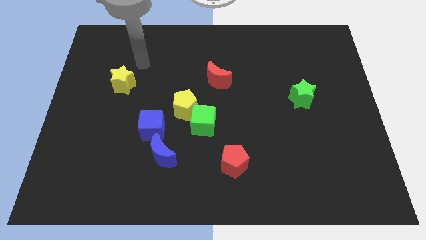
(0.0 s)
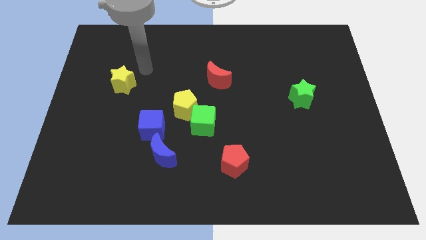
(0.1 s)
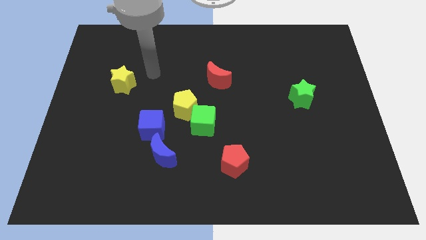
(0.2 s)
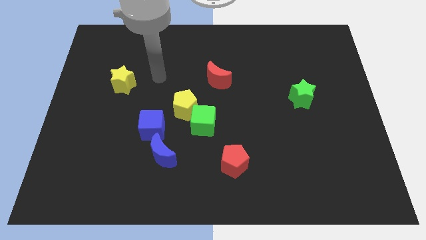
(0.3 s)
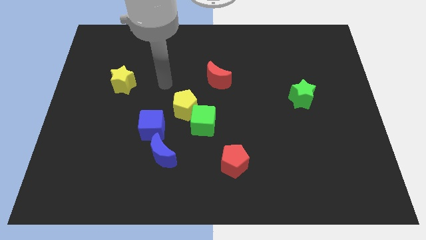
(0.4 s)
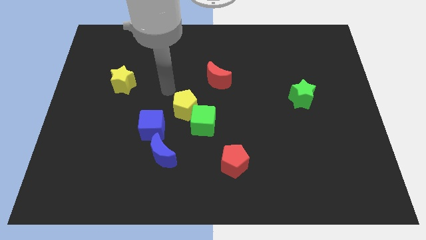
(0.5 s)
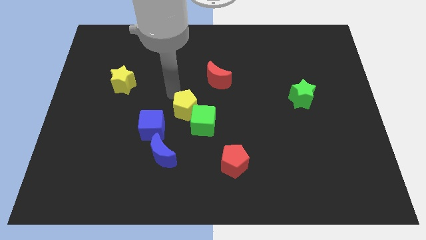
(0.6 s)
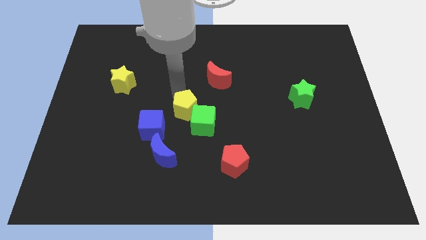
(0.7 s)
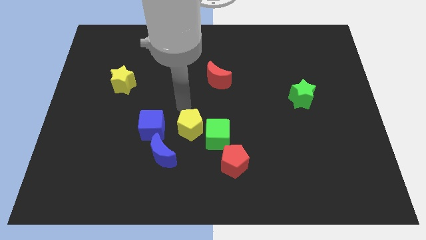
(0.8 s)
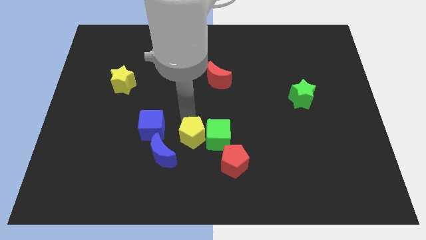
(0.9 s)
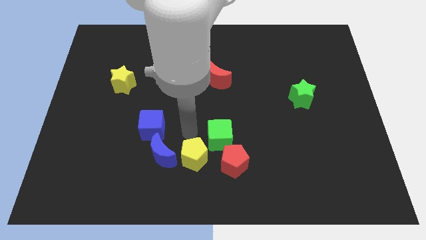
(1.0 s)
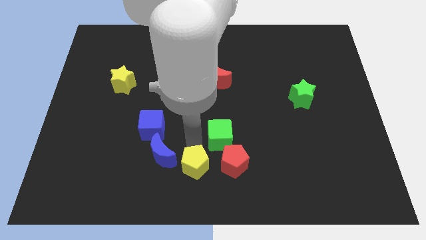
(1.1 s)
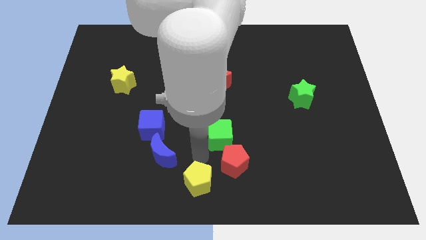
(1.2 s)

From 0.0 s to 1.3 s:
pull the green cube apart from the yellow pentagon

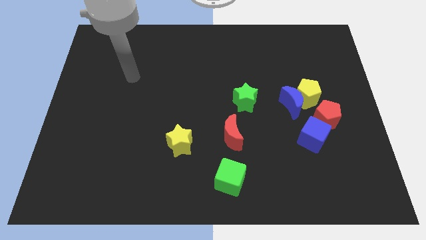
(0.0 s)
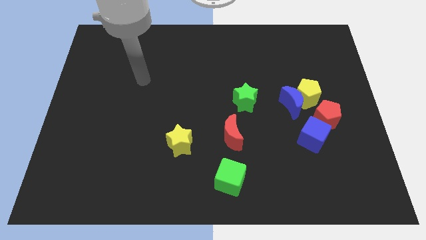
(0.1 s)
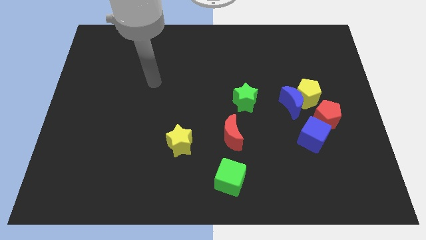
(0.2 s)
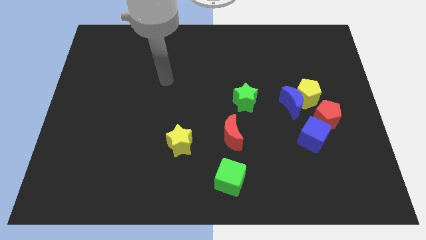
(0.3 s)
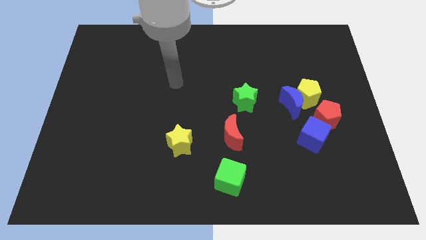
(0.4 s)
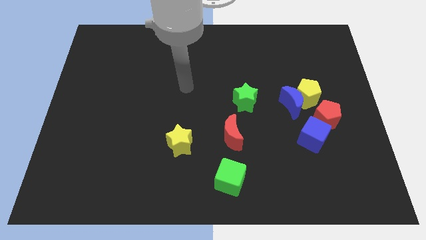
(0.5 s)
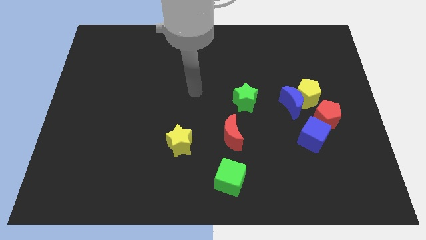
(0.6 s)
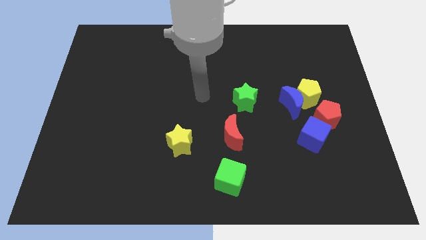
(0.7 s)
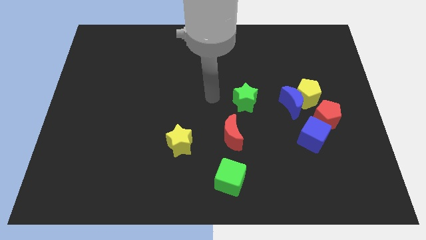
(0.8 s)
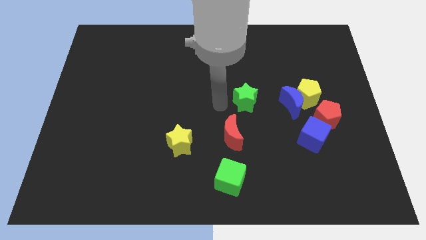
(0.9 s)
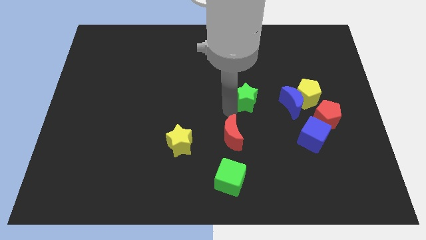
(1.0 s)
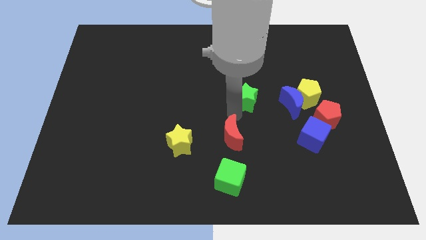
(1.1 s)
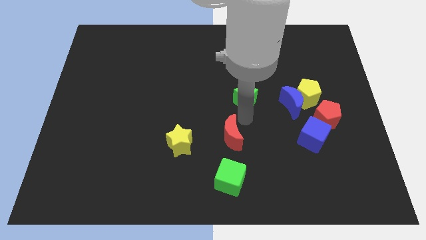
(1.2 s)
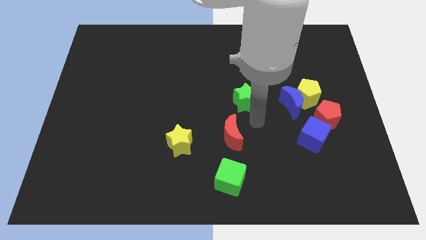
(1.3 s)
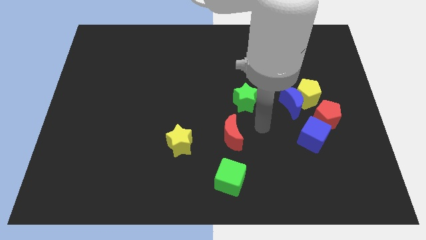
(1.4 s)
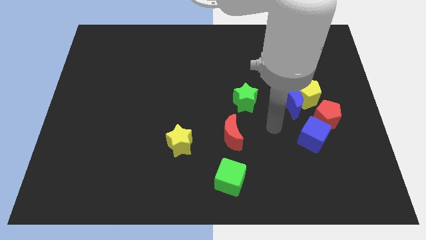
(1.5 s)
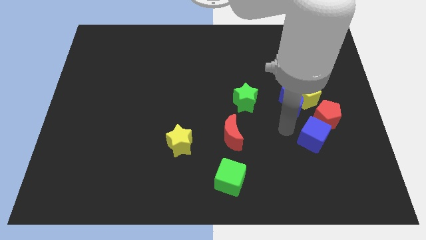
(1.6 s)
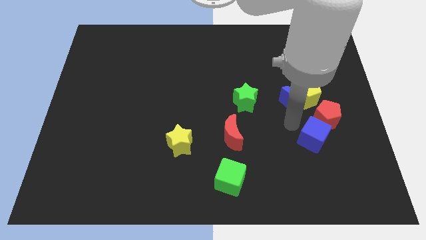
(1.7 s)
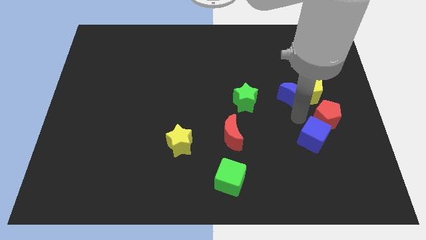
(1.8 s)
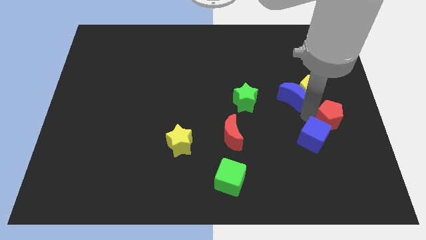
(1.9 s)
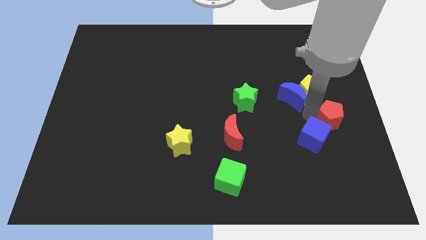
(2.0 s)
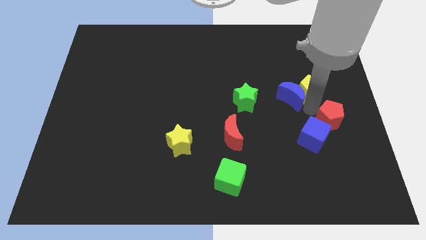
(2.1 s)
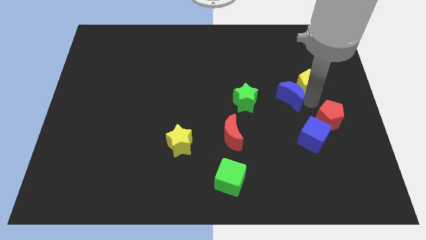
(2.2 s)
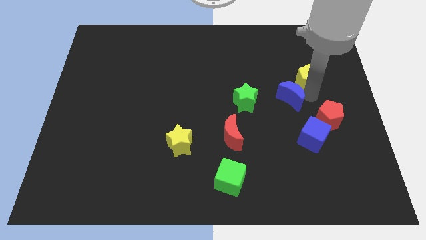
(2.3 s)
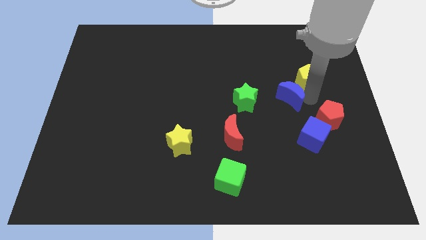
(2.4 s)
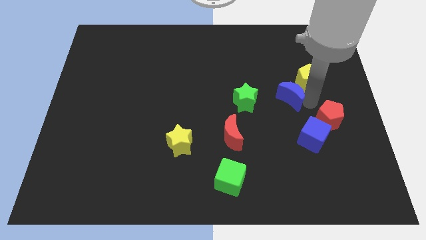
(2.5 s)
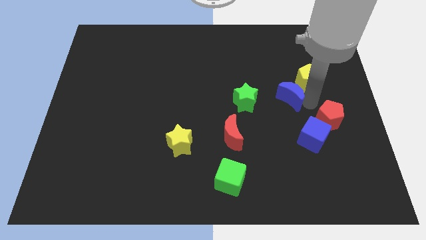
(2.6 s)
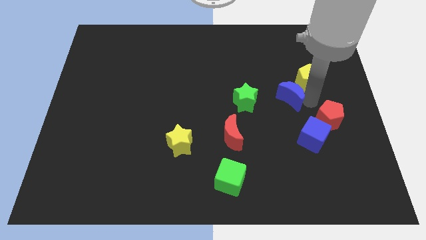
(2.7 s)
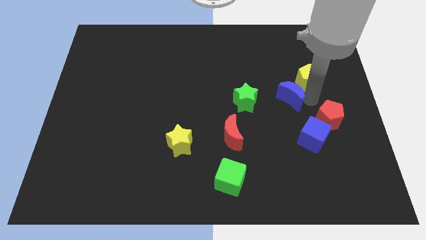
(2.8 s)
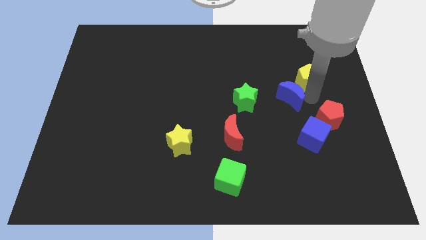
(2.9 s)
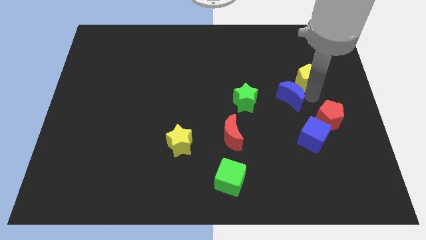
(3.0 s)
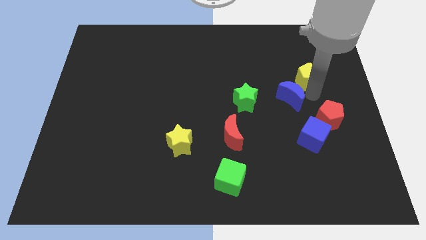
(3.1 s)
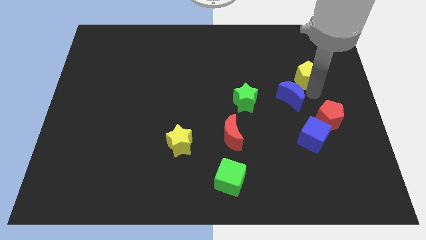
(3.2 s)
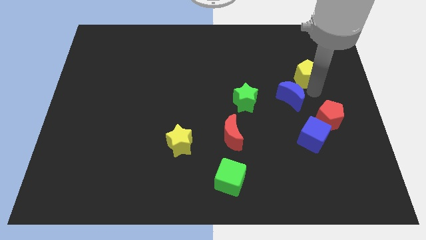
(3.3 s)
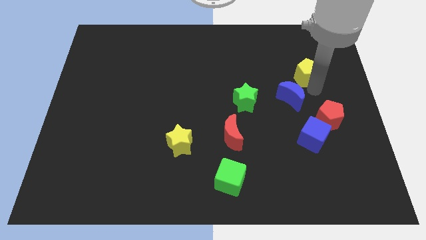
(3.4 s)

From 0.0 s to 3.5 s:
move the yellow pentagon away from the blue moon and red pentagon

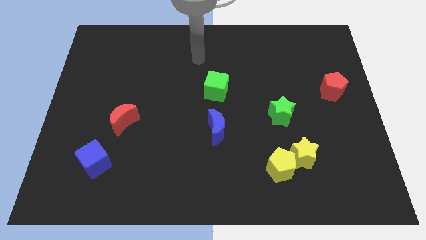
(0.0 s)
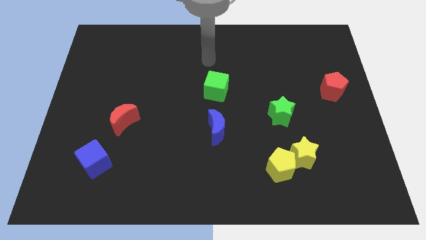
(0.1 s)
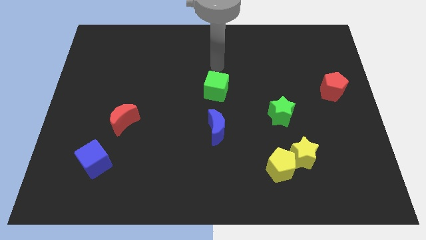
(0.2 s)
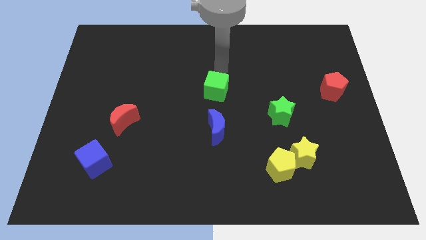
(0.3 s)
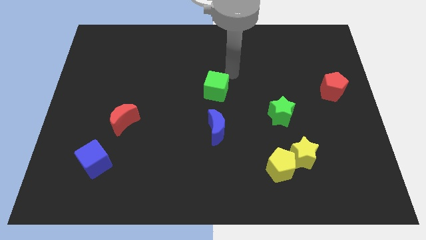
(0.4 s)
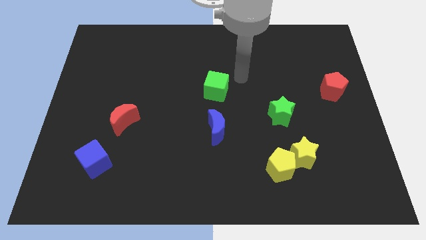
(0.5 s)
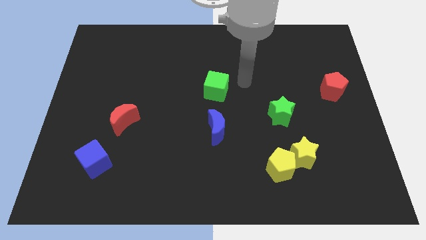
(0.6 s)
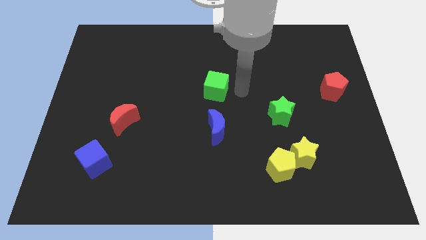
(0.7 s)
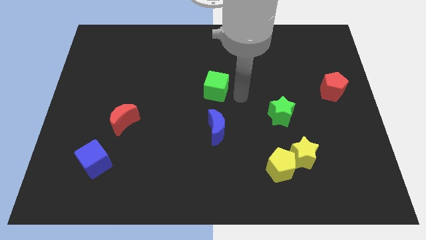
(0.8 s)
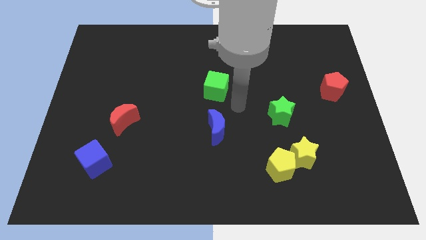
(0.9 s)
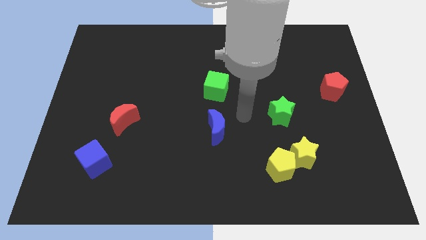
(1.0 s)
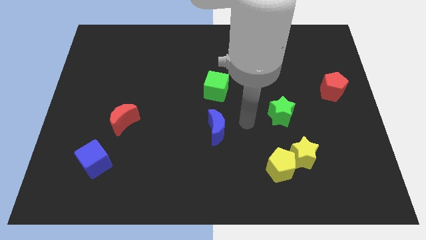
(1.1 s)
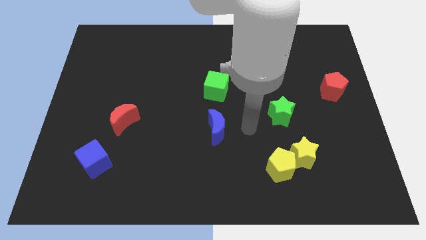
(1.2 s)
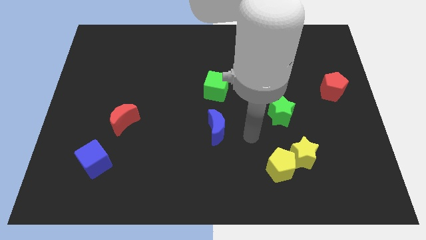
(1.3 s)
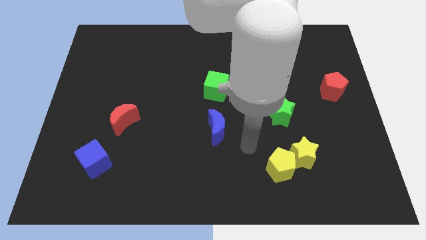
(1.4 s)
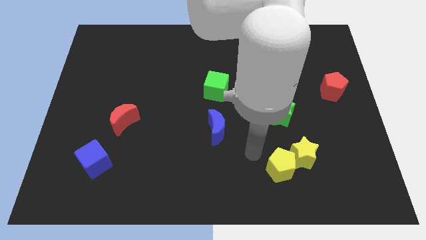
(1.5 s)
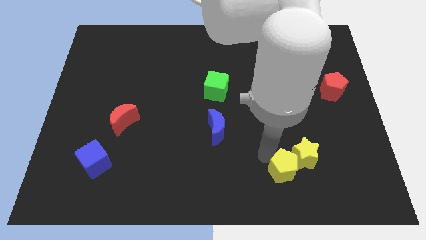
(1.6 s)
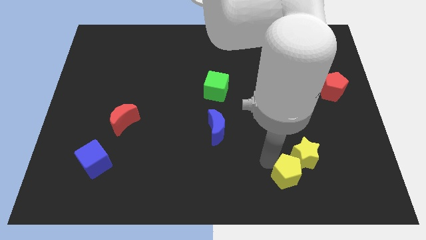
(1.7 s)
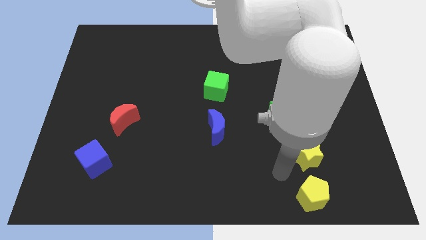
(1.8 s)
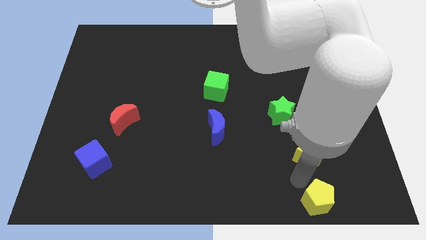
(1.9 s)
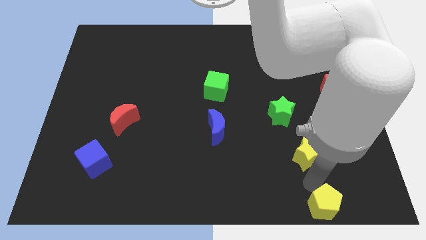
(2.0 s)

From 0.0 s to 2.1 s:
pull the yellow star apart from the yellow pentagon

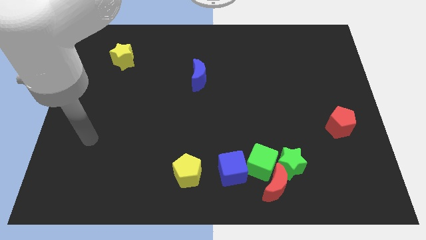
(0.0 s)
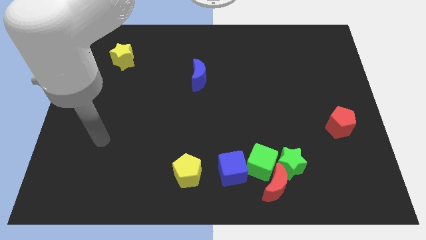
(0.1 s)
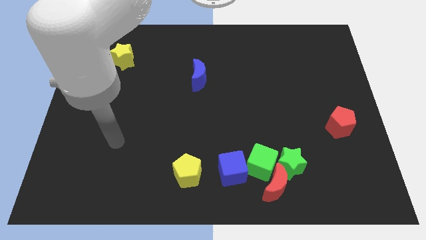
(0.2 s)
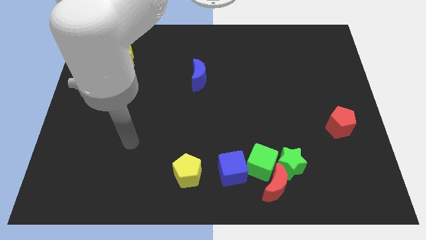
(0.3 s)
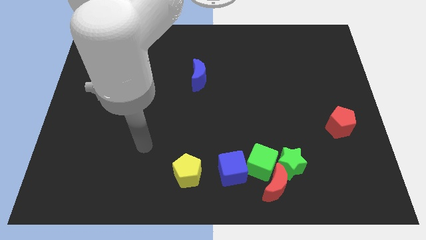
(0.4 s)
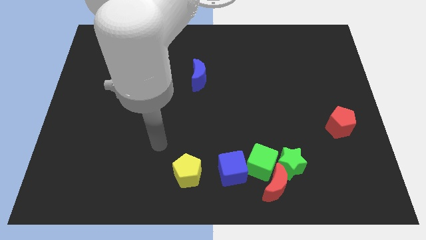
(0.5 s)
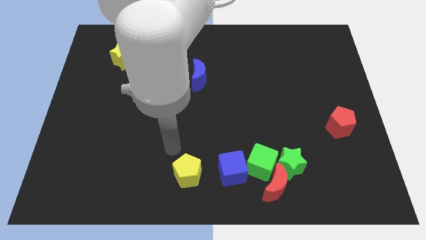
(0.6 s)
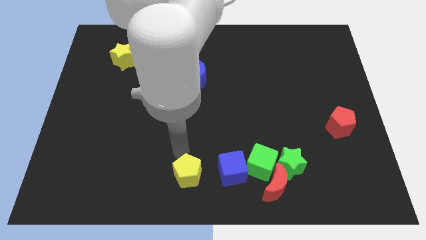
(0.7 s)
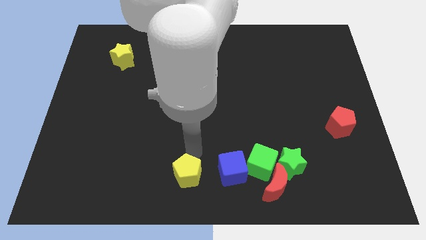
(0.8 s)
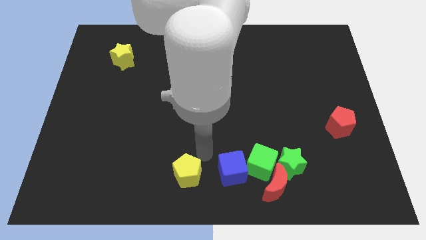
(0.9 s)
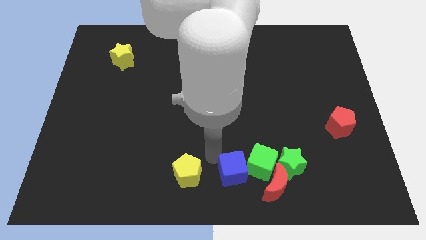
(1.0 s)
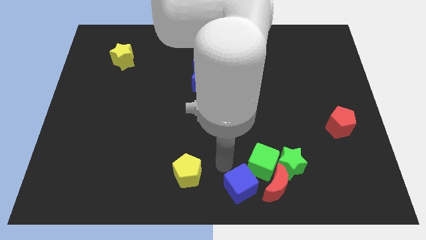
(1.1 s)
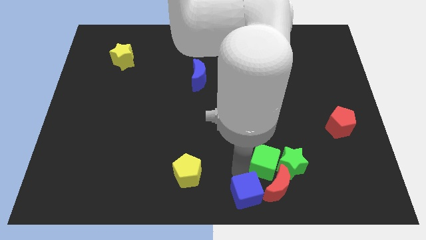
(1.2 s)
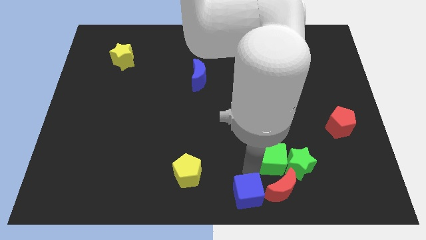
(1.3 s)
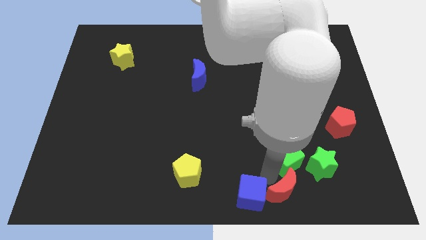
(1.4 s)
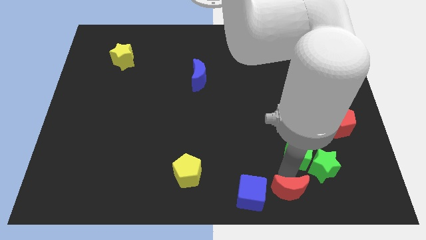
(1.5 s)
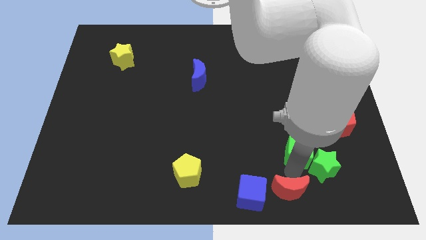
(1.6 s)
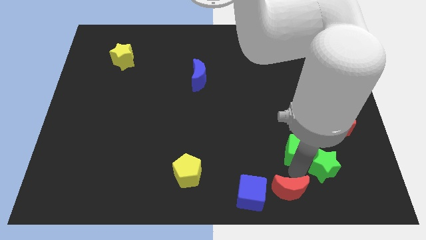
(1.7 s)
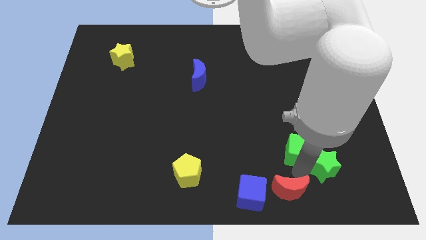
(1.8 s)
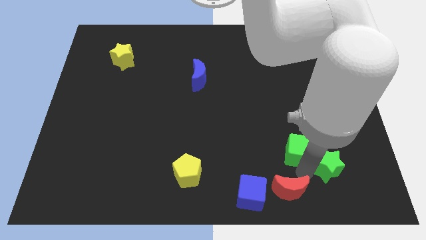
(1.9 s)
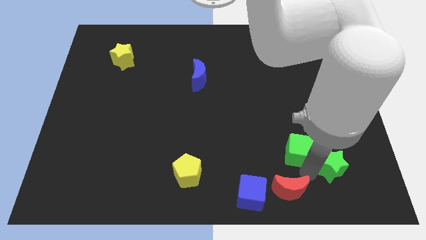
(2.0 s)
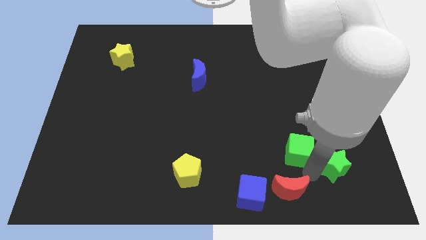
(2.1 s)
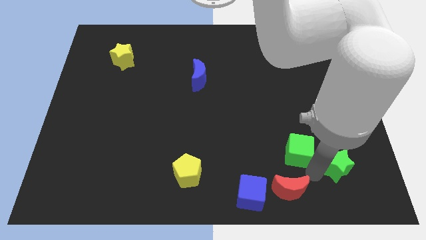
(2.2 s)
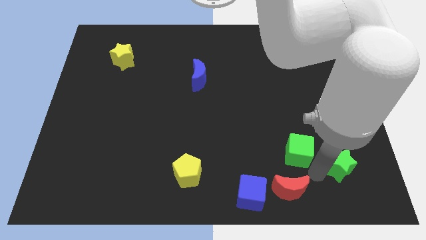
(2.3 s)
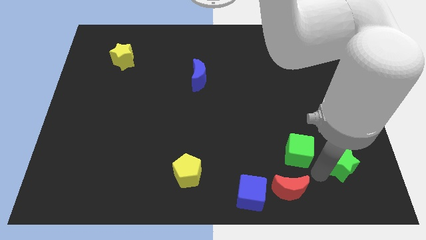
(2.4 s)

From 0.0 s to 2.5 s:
pull the green star apart from the red moon and green cube
